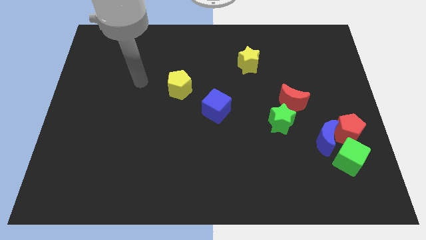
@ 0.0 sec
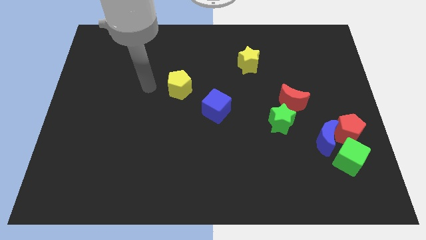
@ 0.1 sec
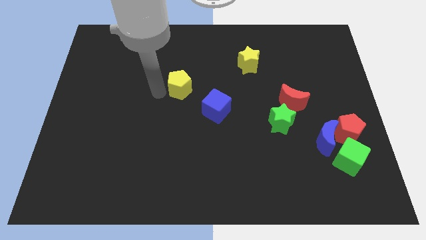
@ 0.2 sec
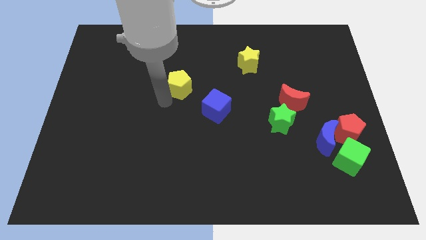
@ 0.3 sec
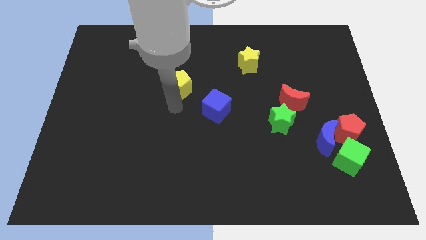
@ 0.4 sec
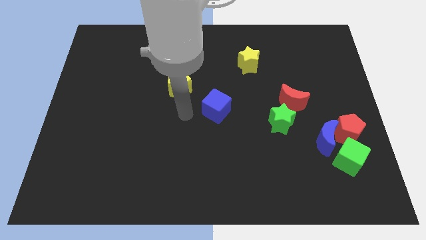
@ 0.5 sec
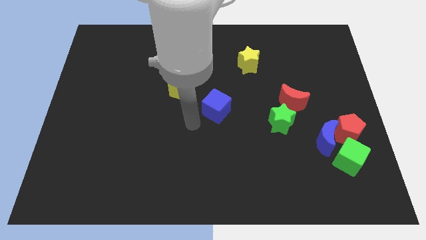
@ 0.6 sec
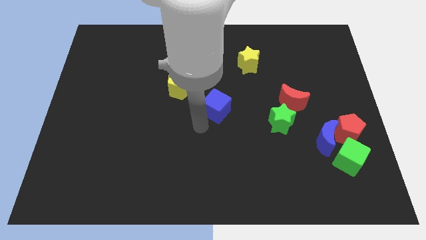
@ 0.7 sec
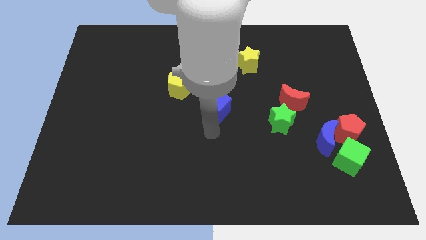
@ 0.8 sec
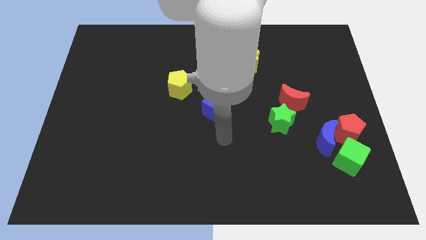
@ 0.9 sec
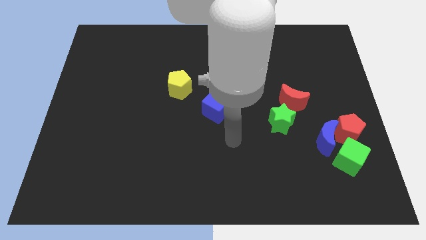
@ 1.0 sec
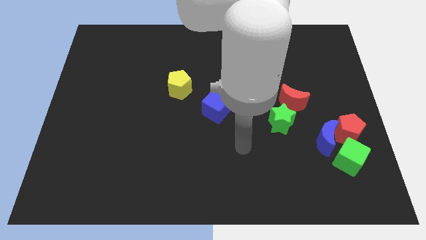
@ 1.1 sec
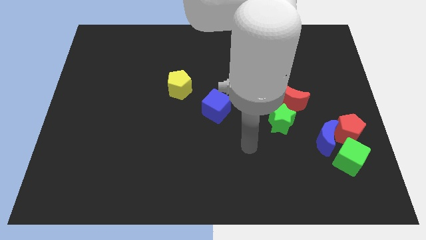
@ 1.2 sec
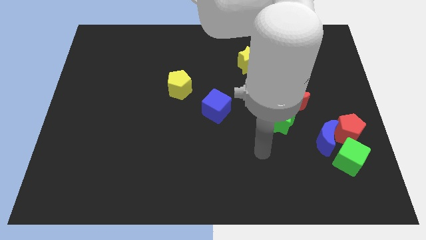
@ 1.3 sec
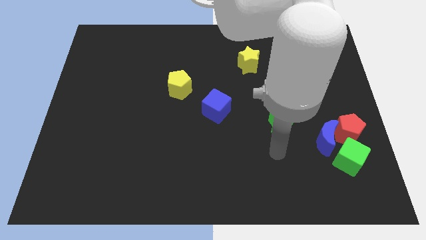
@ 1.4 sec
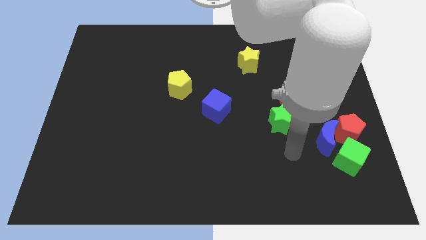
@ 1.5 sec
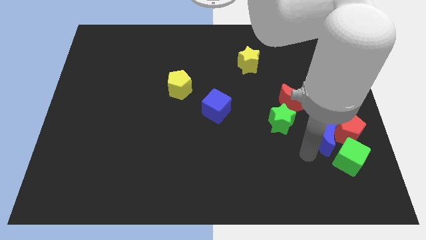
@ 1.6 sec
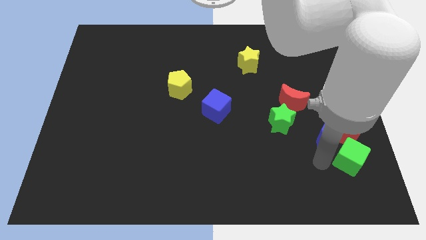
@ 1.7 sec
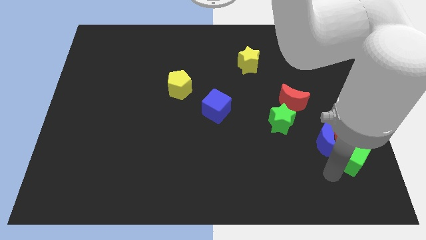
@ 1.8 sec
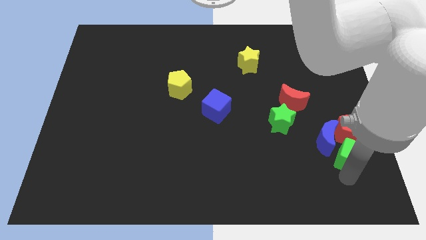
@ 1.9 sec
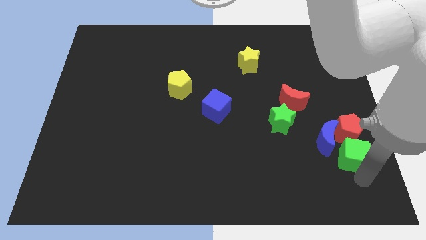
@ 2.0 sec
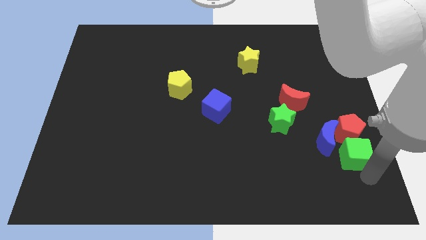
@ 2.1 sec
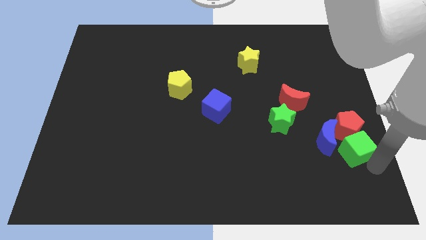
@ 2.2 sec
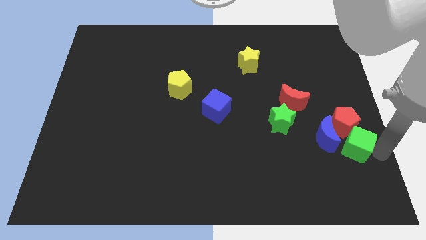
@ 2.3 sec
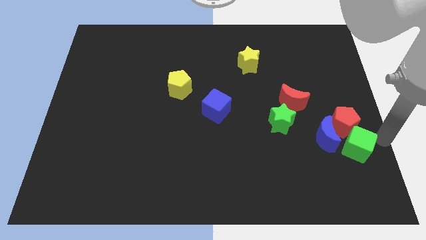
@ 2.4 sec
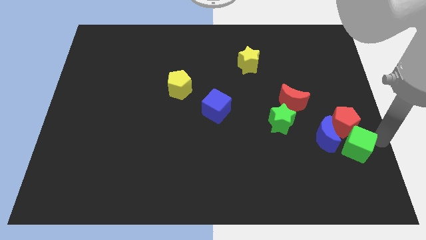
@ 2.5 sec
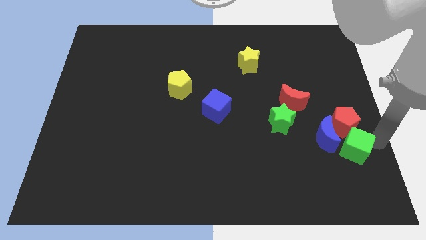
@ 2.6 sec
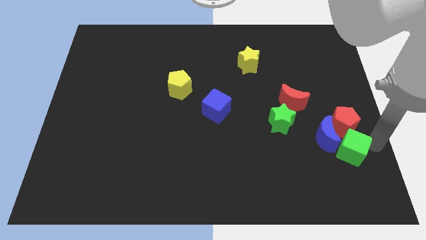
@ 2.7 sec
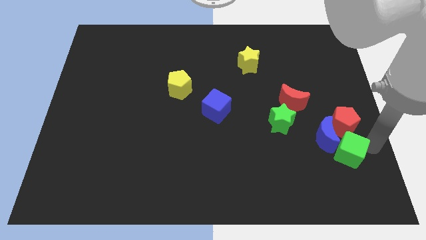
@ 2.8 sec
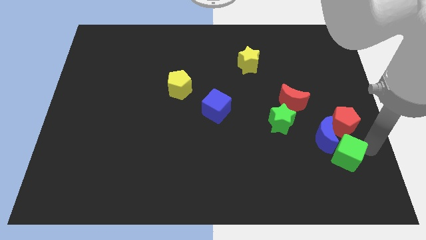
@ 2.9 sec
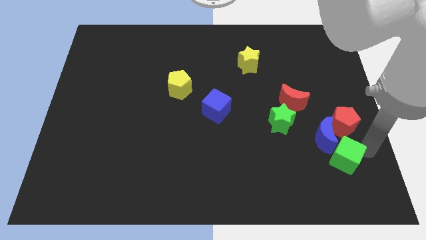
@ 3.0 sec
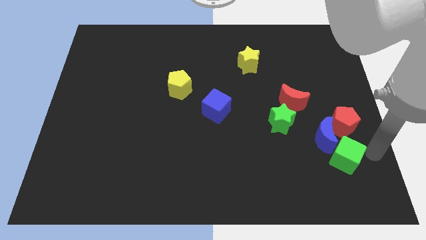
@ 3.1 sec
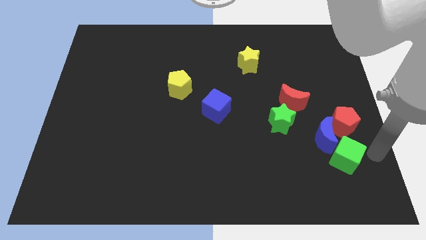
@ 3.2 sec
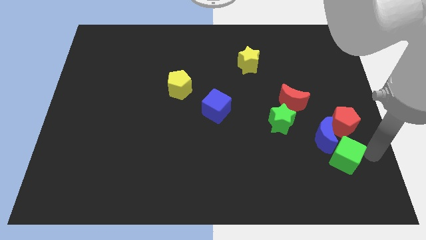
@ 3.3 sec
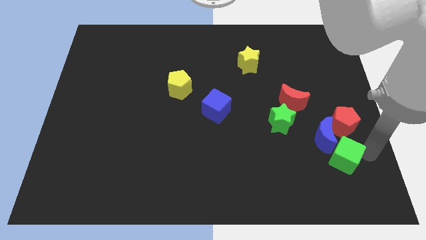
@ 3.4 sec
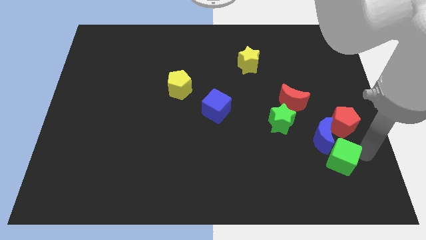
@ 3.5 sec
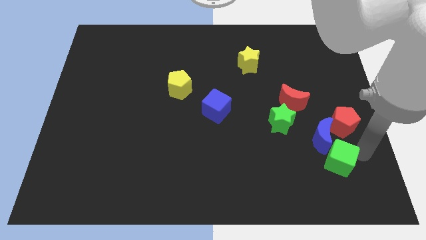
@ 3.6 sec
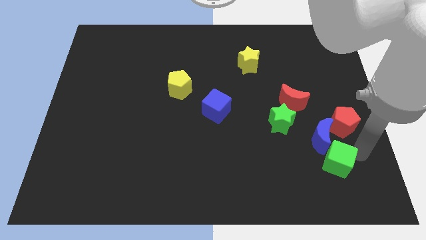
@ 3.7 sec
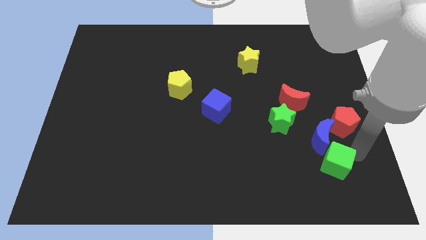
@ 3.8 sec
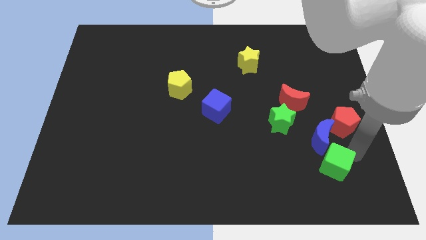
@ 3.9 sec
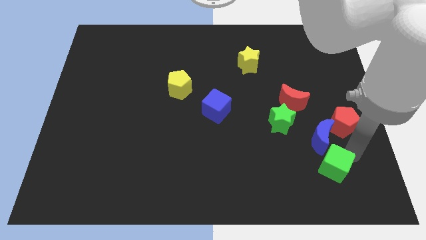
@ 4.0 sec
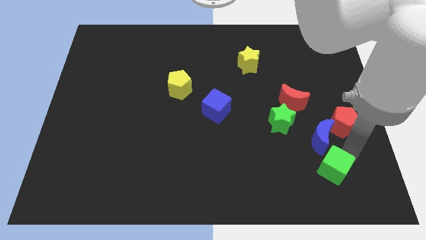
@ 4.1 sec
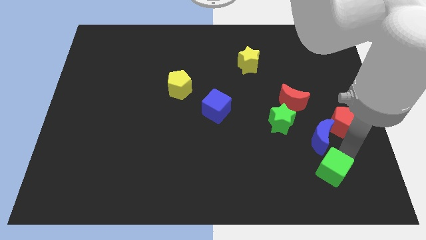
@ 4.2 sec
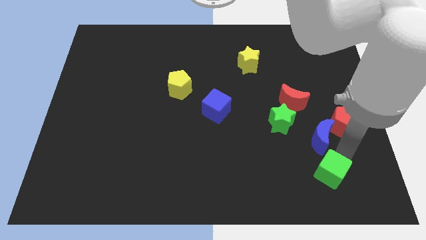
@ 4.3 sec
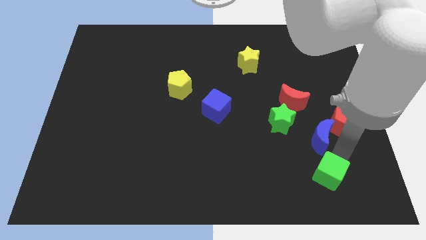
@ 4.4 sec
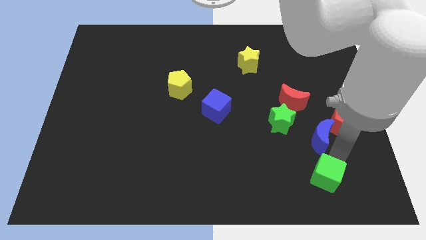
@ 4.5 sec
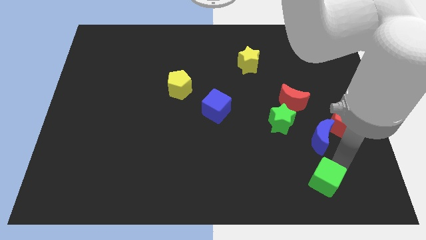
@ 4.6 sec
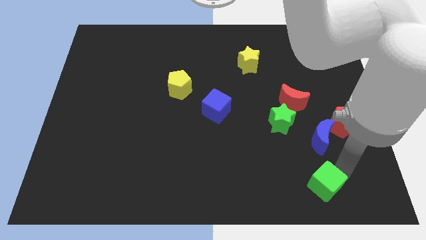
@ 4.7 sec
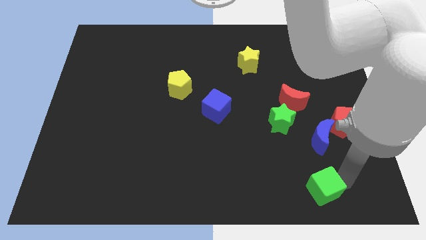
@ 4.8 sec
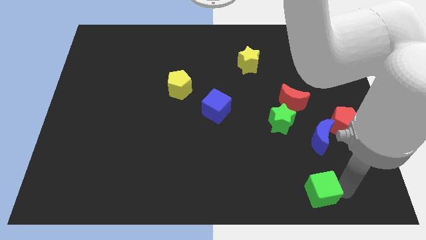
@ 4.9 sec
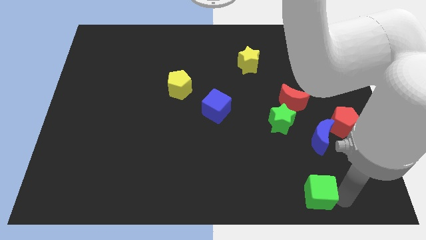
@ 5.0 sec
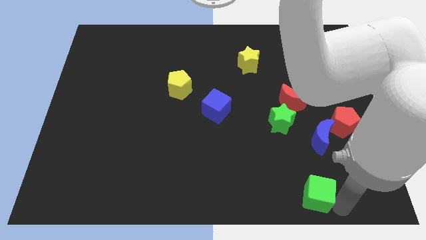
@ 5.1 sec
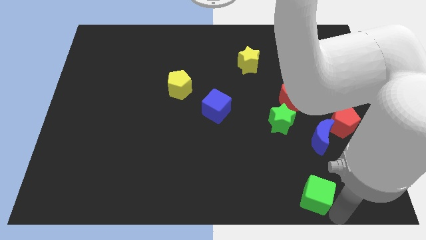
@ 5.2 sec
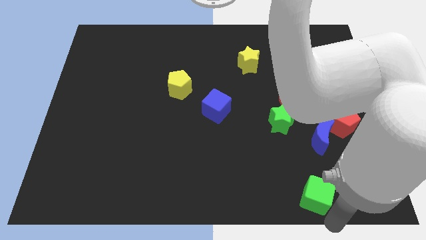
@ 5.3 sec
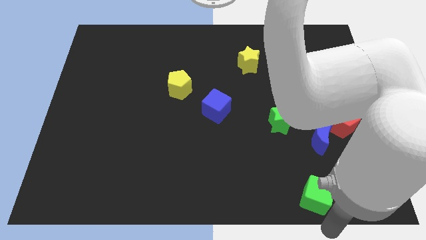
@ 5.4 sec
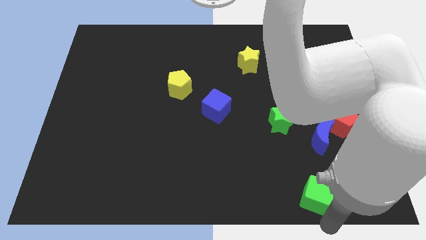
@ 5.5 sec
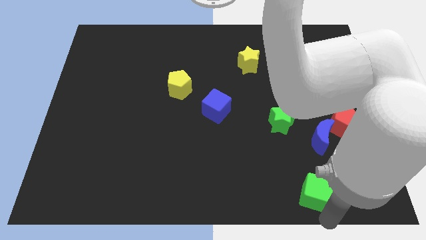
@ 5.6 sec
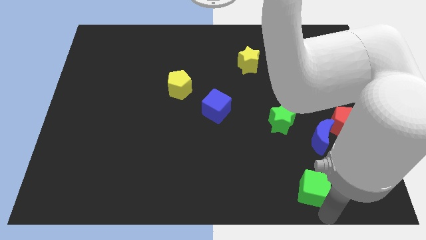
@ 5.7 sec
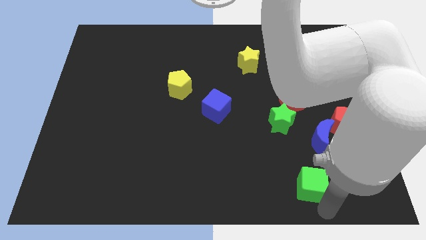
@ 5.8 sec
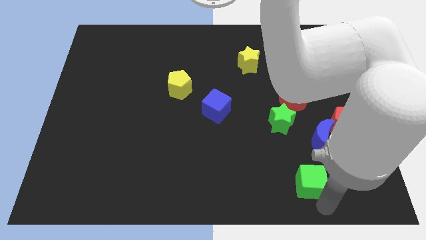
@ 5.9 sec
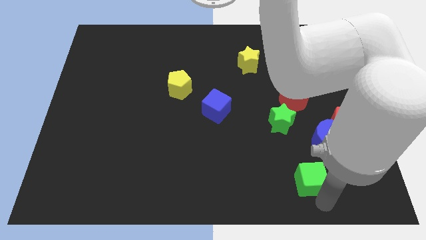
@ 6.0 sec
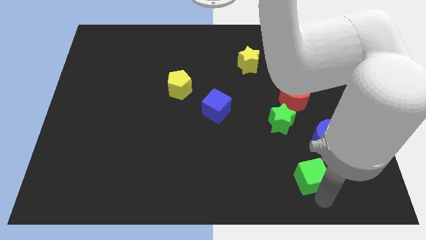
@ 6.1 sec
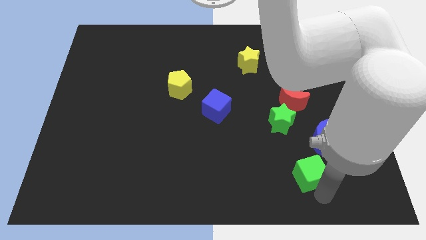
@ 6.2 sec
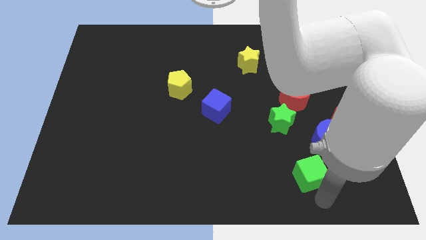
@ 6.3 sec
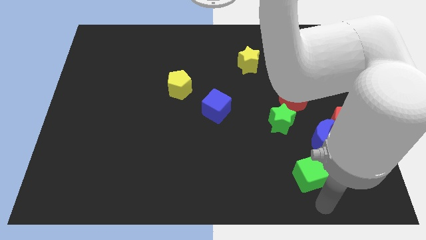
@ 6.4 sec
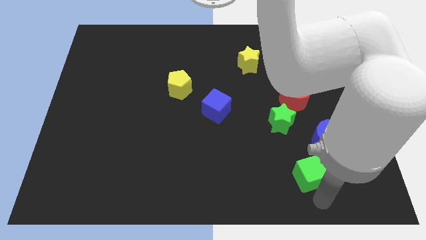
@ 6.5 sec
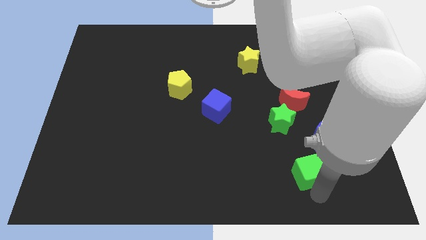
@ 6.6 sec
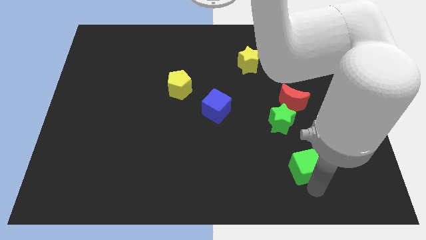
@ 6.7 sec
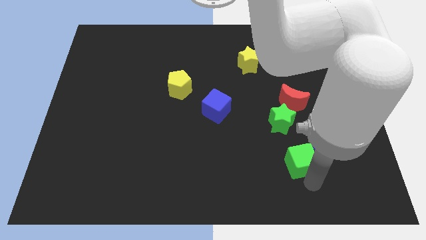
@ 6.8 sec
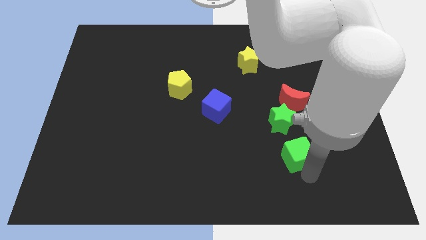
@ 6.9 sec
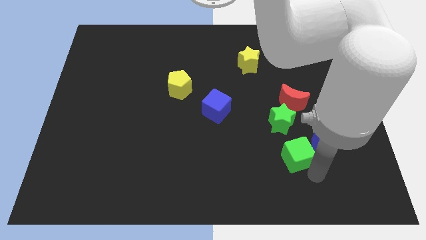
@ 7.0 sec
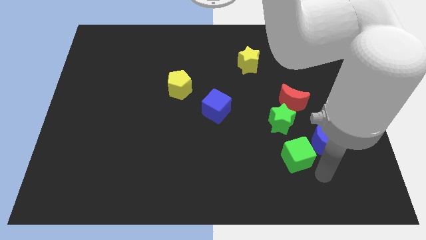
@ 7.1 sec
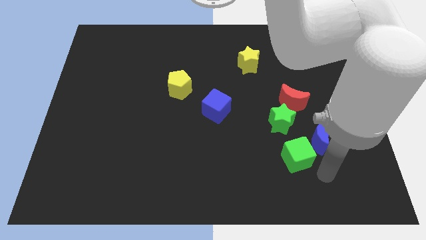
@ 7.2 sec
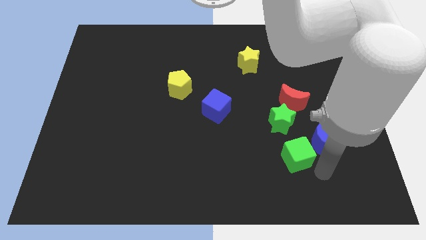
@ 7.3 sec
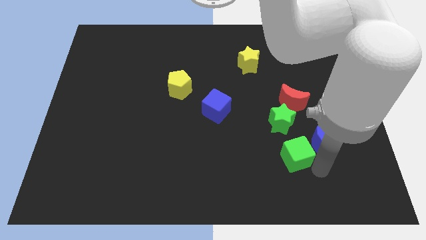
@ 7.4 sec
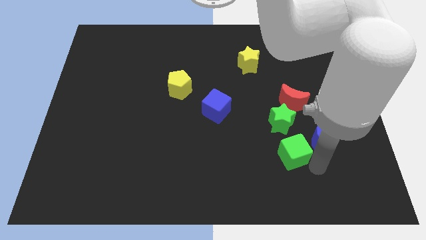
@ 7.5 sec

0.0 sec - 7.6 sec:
slide the green cube a bit upwards and then to the left

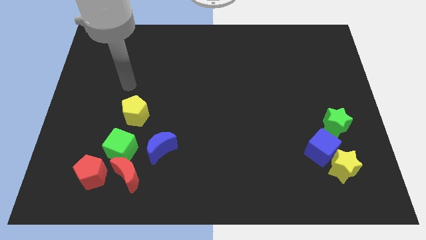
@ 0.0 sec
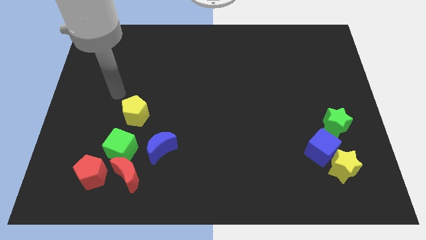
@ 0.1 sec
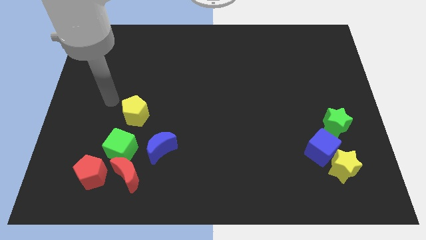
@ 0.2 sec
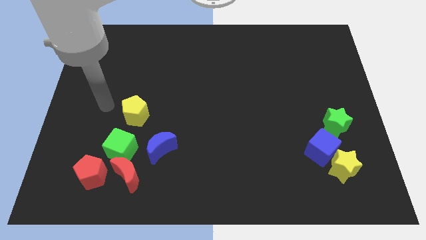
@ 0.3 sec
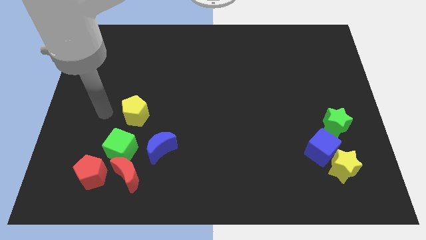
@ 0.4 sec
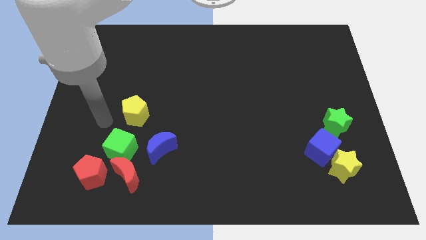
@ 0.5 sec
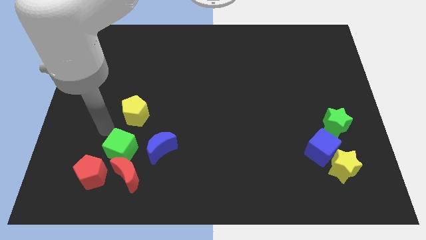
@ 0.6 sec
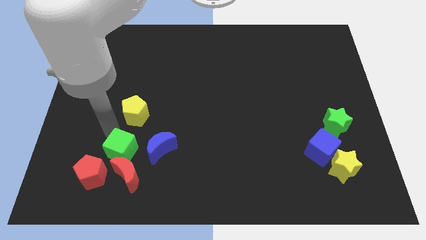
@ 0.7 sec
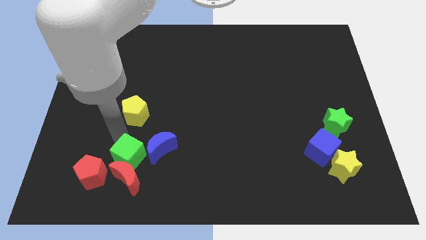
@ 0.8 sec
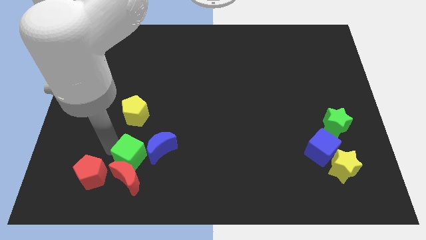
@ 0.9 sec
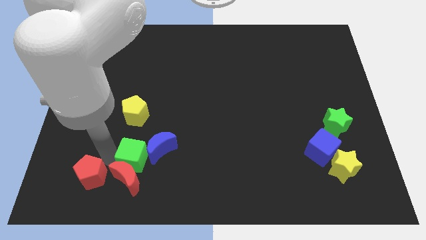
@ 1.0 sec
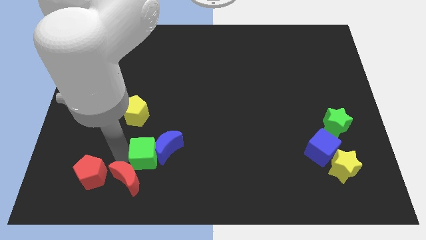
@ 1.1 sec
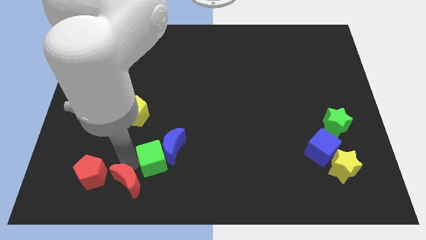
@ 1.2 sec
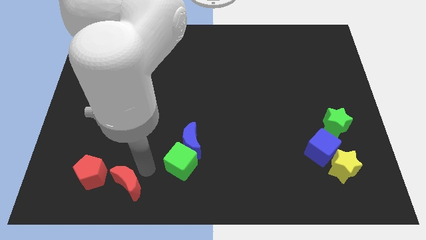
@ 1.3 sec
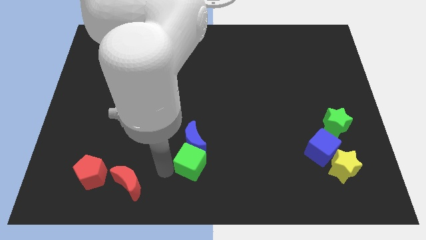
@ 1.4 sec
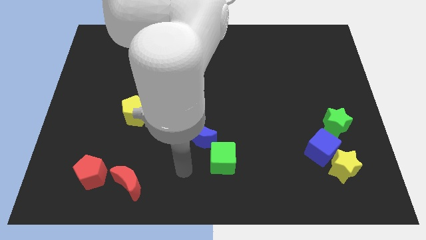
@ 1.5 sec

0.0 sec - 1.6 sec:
slightly move the blue moon up and right
